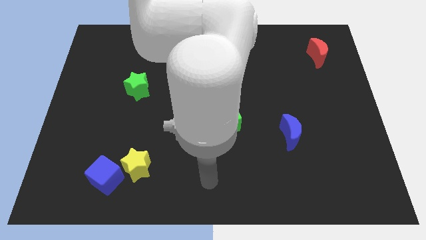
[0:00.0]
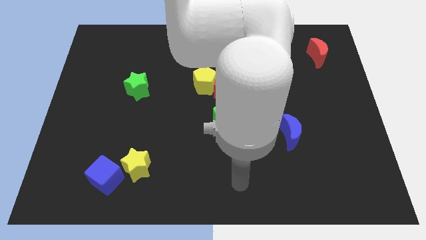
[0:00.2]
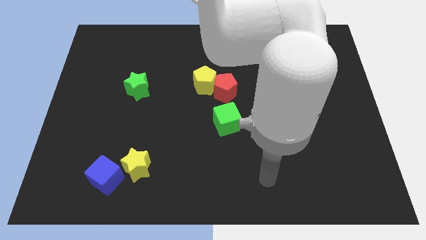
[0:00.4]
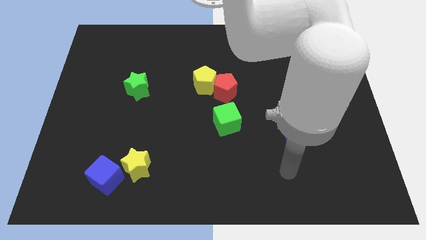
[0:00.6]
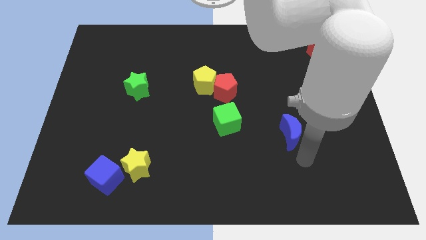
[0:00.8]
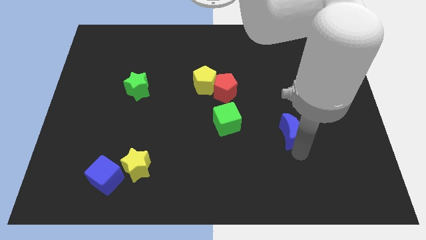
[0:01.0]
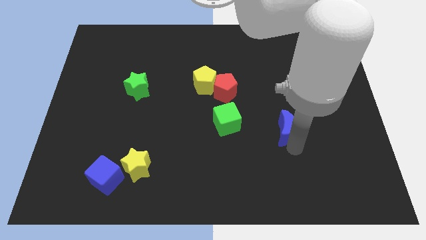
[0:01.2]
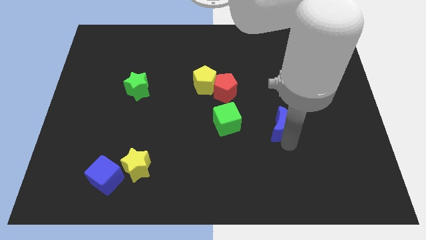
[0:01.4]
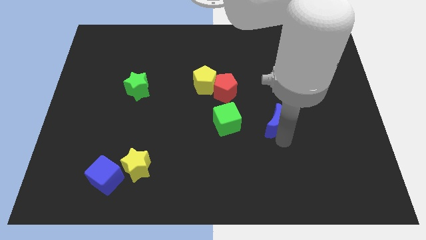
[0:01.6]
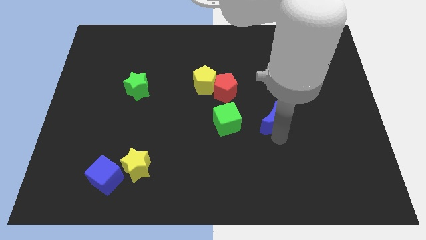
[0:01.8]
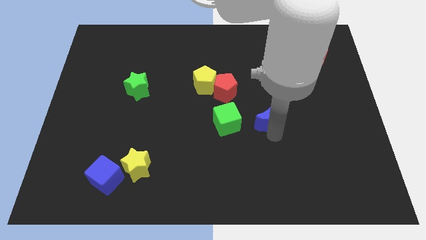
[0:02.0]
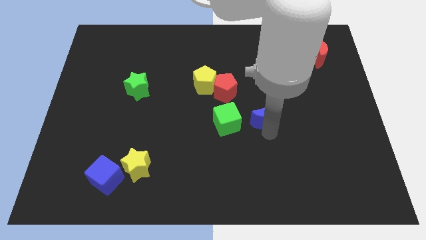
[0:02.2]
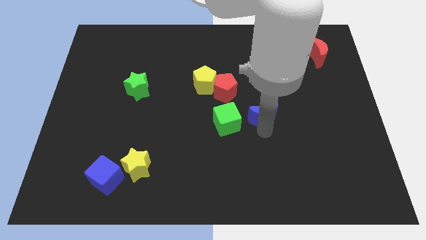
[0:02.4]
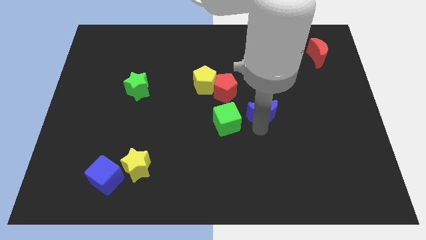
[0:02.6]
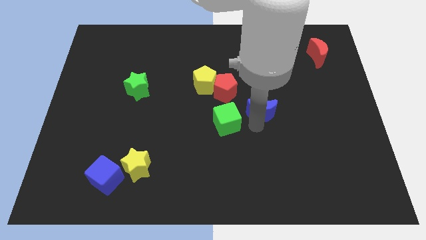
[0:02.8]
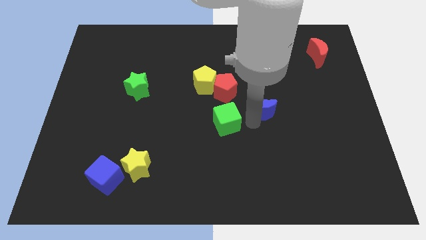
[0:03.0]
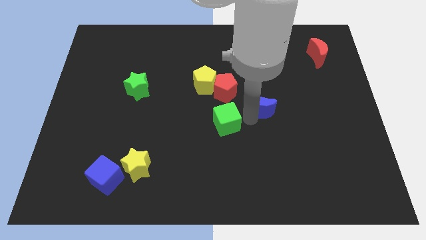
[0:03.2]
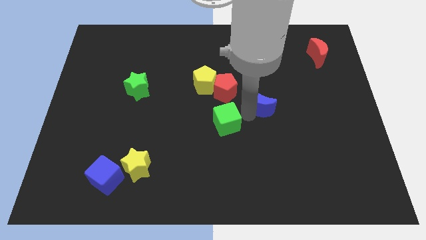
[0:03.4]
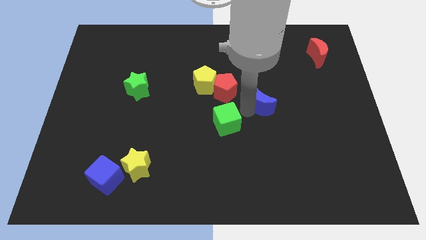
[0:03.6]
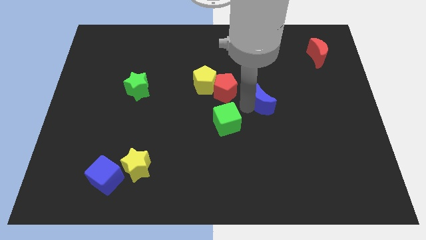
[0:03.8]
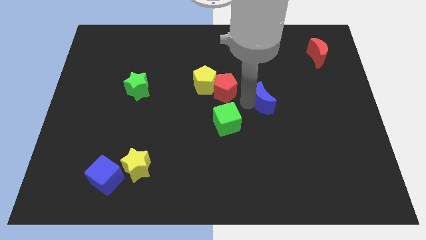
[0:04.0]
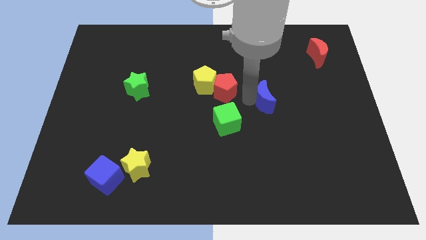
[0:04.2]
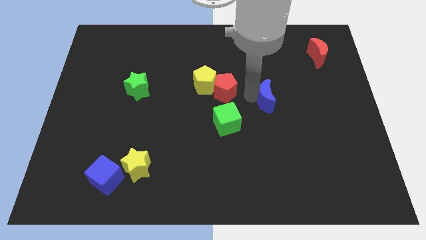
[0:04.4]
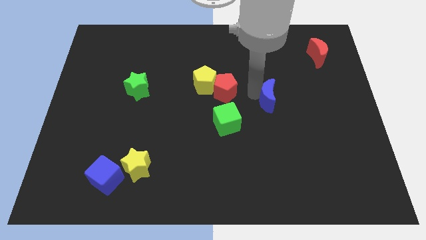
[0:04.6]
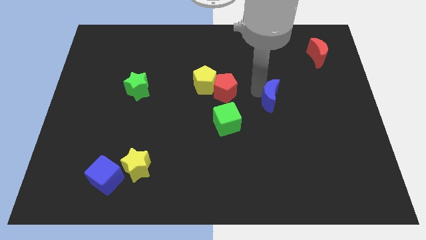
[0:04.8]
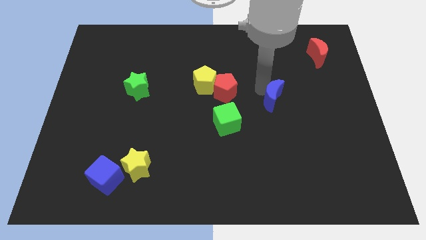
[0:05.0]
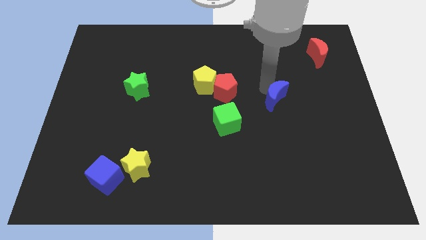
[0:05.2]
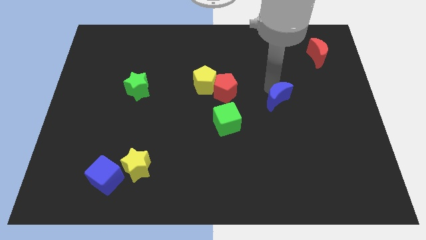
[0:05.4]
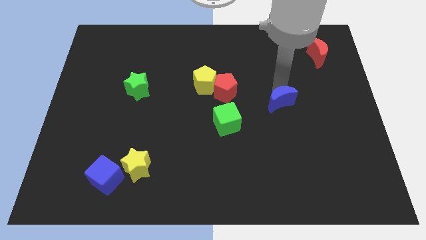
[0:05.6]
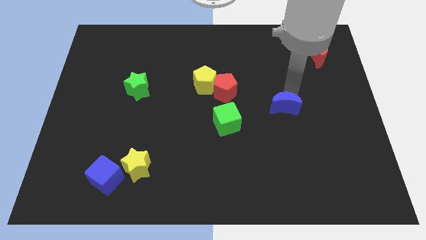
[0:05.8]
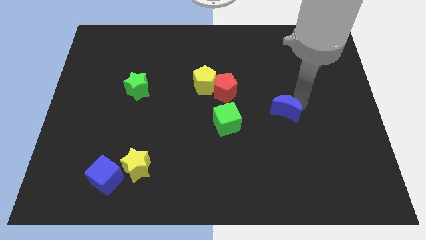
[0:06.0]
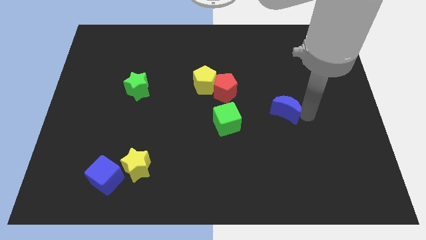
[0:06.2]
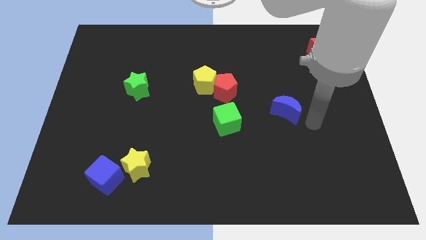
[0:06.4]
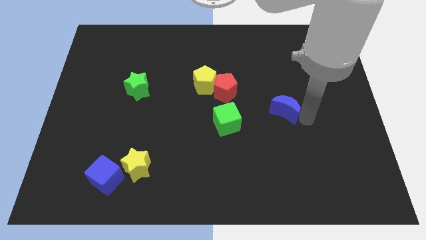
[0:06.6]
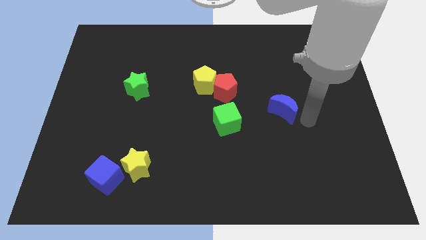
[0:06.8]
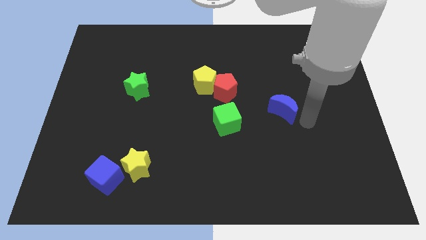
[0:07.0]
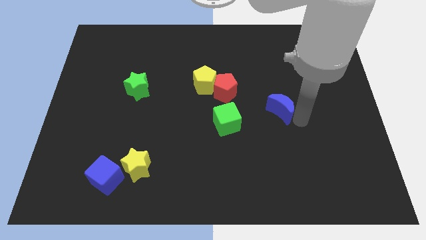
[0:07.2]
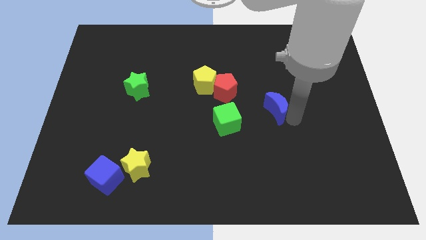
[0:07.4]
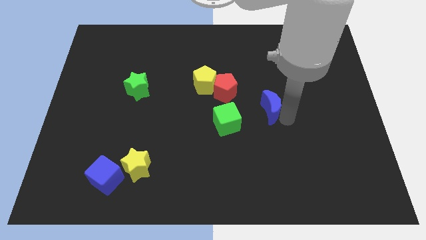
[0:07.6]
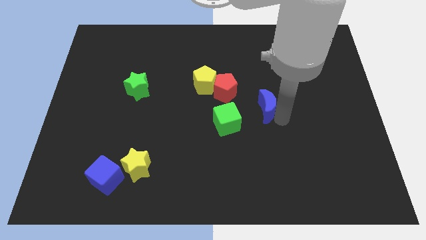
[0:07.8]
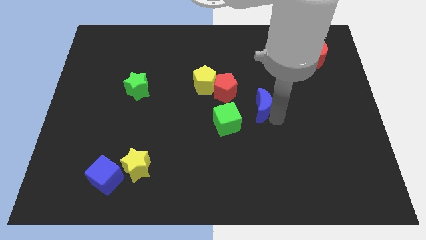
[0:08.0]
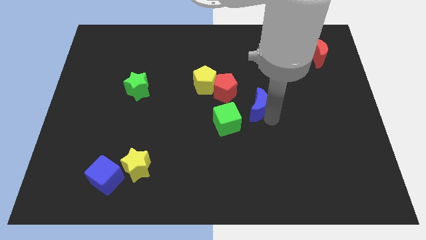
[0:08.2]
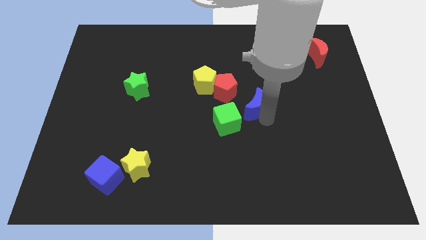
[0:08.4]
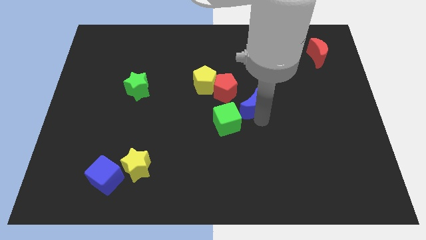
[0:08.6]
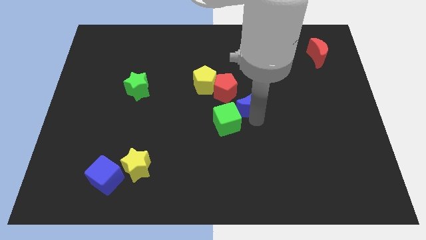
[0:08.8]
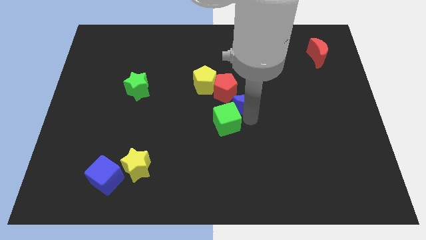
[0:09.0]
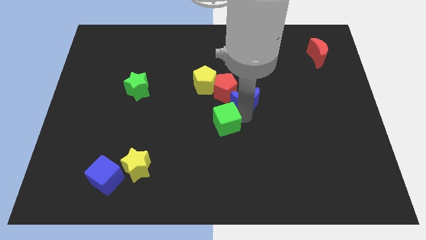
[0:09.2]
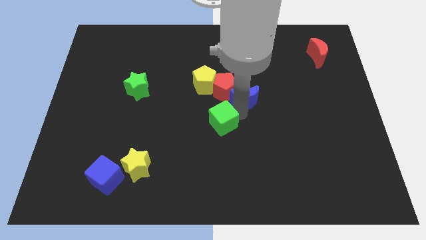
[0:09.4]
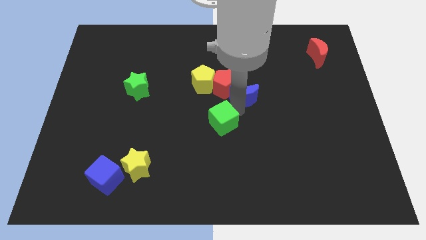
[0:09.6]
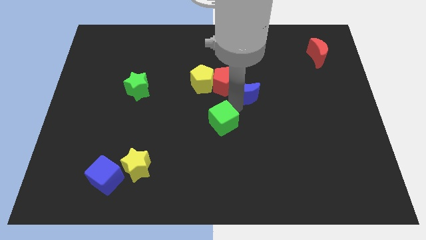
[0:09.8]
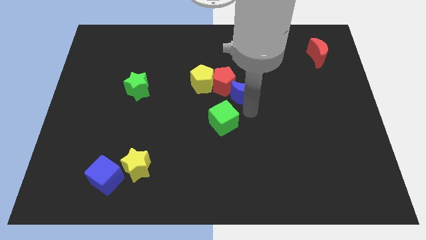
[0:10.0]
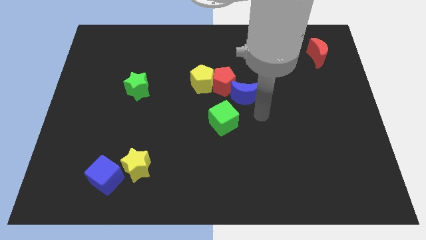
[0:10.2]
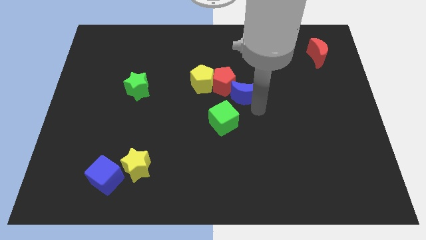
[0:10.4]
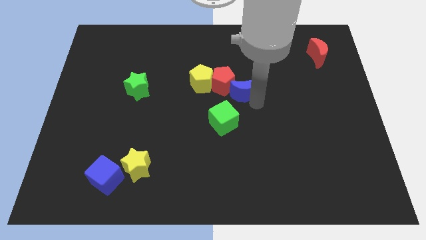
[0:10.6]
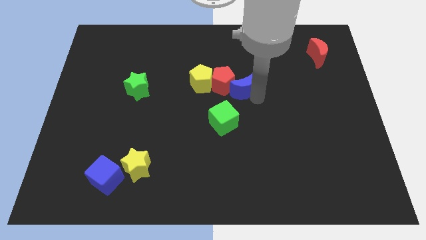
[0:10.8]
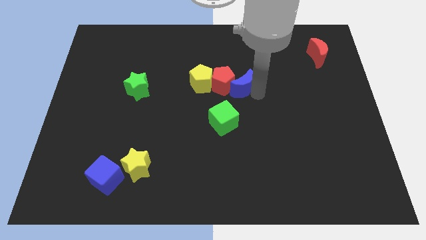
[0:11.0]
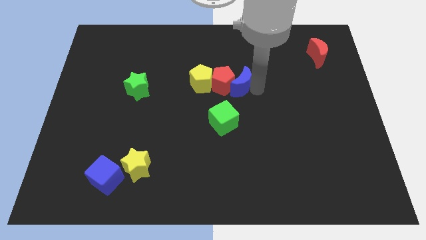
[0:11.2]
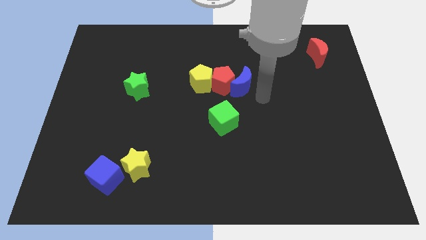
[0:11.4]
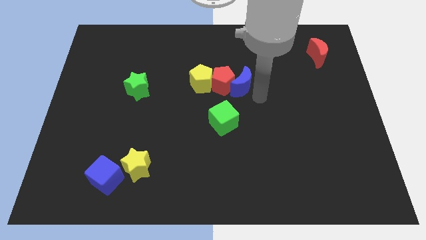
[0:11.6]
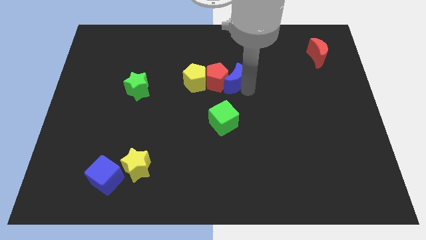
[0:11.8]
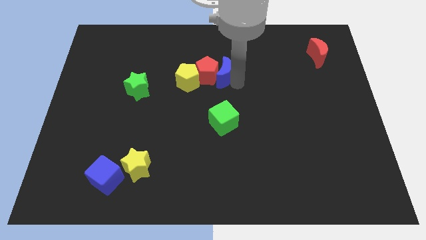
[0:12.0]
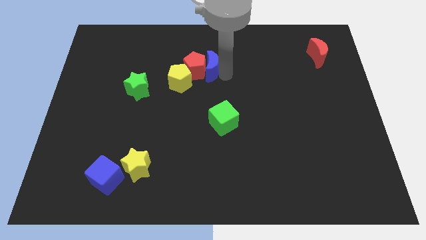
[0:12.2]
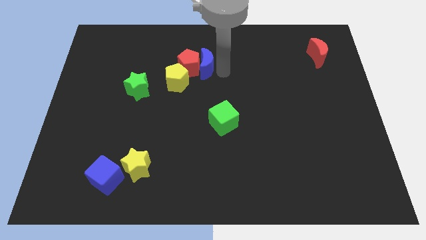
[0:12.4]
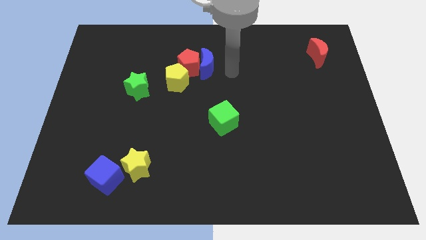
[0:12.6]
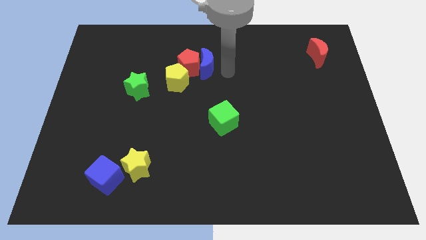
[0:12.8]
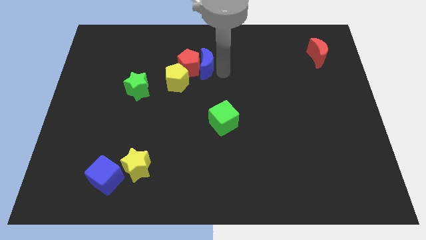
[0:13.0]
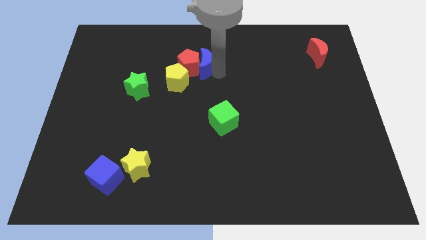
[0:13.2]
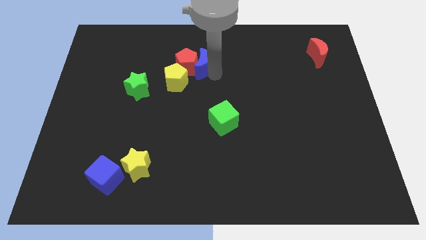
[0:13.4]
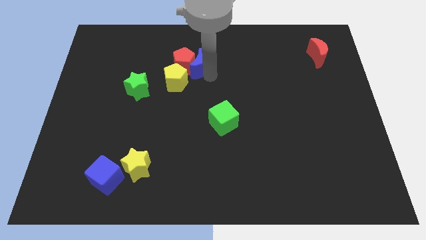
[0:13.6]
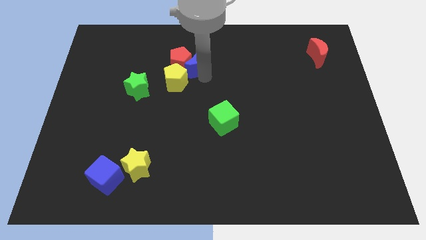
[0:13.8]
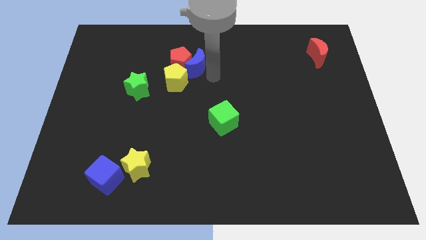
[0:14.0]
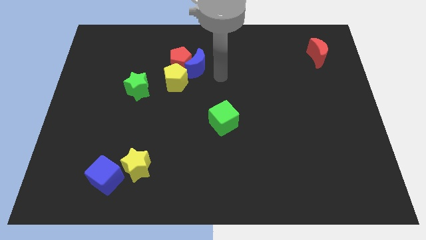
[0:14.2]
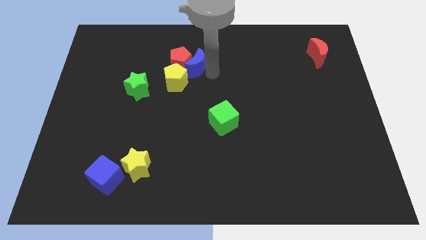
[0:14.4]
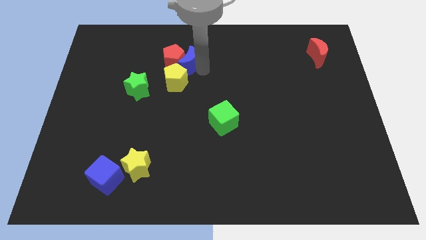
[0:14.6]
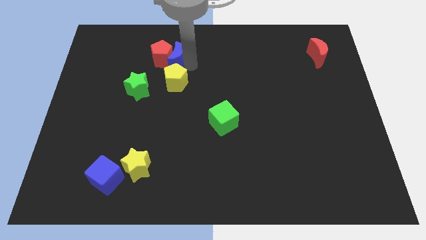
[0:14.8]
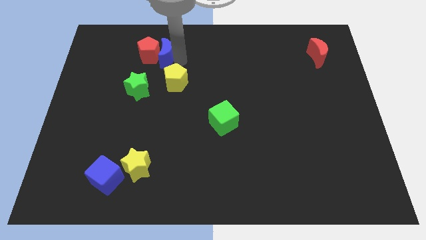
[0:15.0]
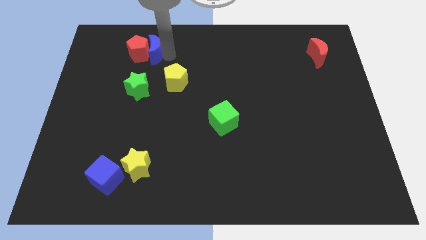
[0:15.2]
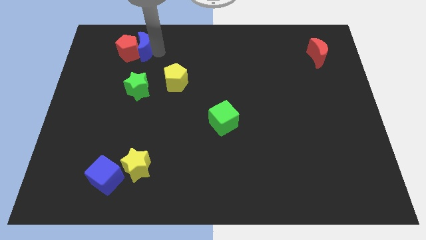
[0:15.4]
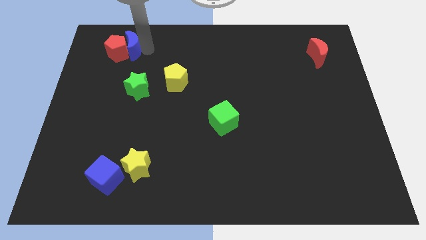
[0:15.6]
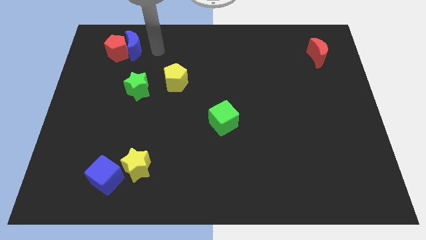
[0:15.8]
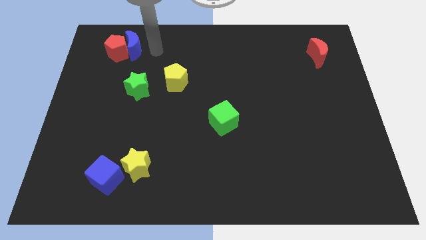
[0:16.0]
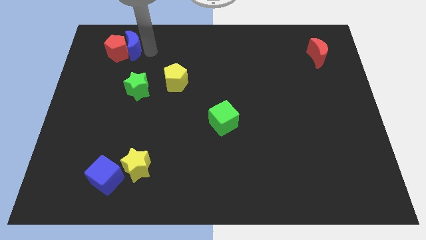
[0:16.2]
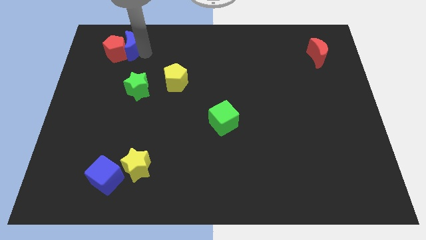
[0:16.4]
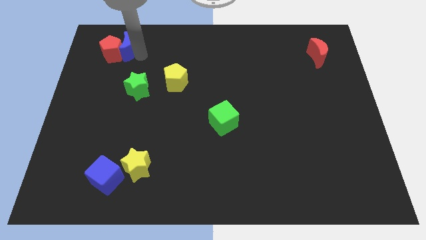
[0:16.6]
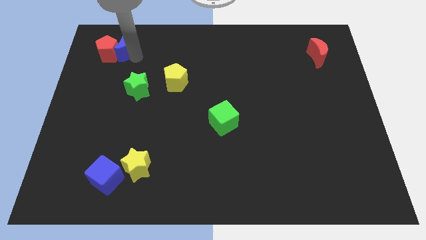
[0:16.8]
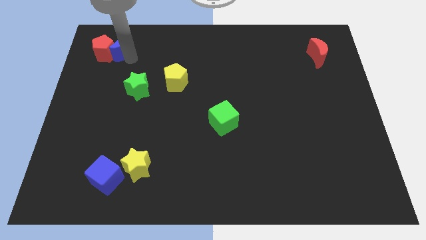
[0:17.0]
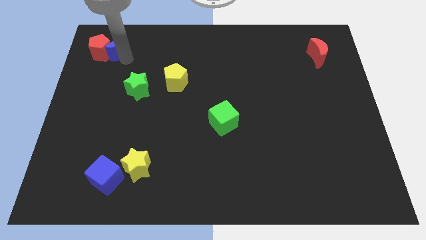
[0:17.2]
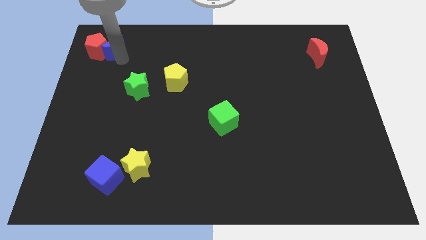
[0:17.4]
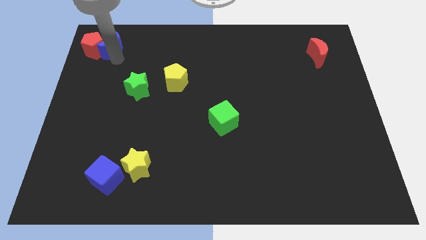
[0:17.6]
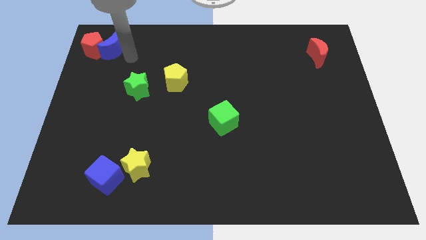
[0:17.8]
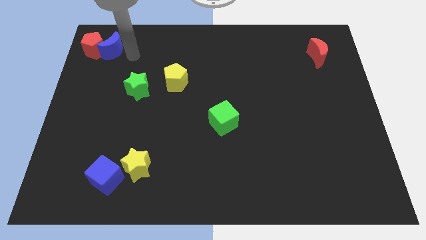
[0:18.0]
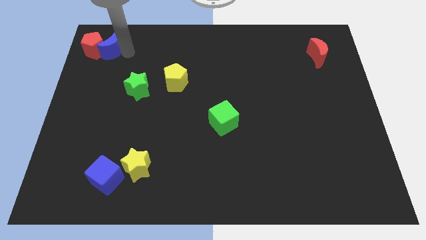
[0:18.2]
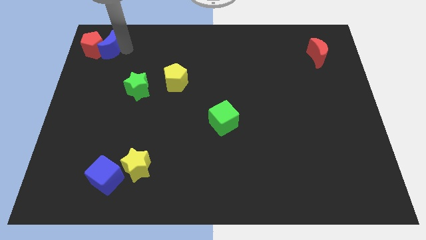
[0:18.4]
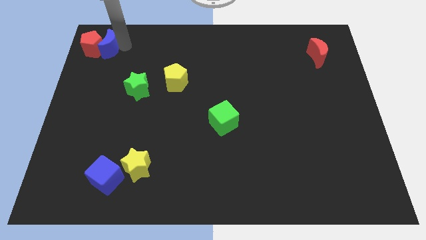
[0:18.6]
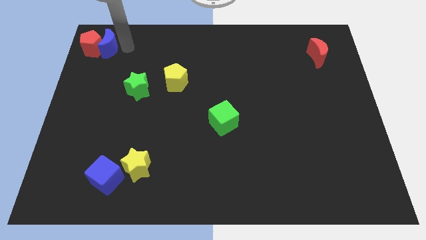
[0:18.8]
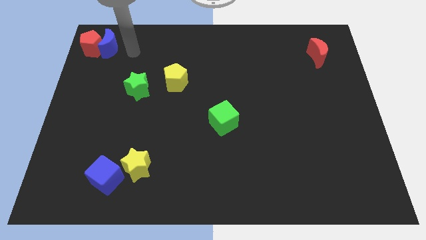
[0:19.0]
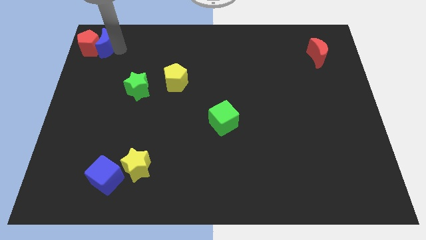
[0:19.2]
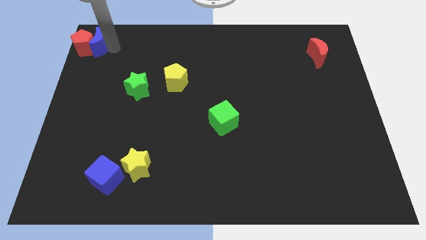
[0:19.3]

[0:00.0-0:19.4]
move the blue moon to the upper left corner
